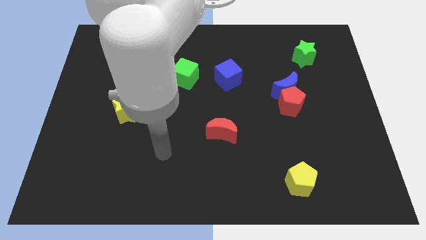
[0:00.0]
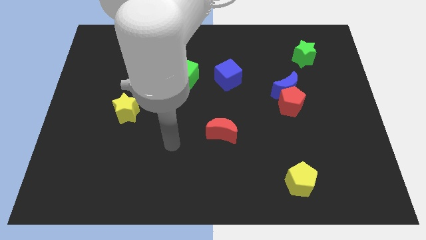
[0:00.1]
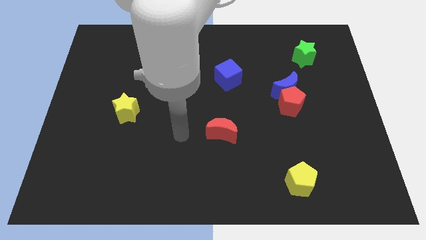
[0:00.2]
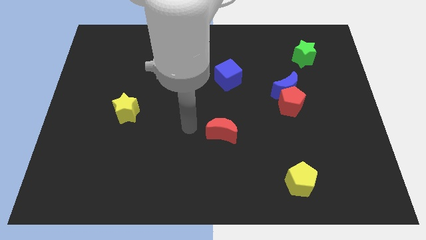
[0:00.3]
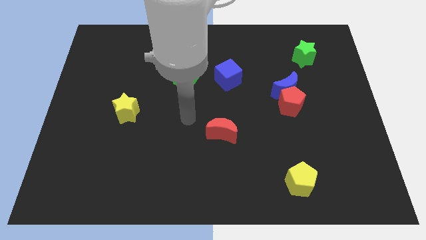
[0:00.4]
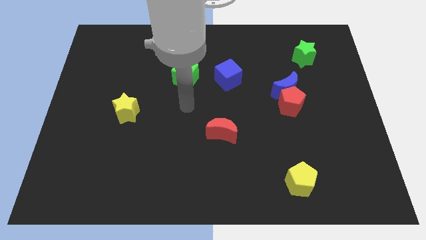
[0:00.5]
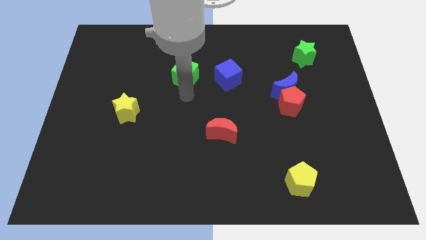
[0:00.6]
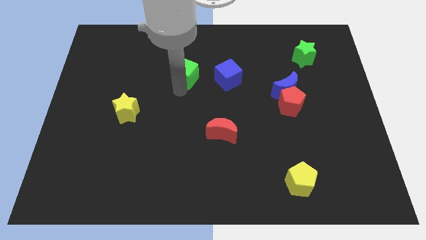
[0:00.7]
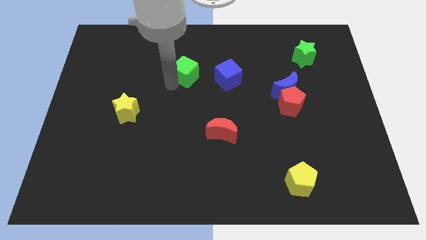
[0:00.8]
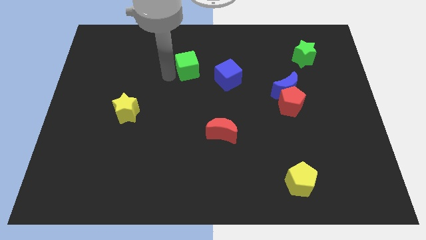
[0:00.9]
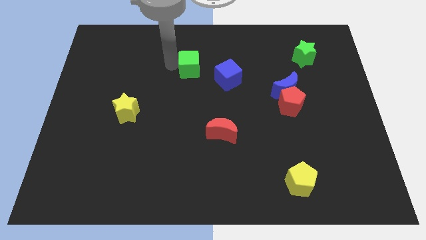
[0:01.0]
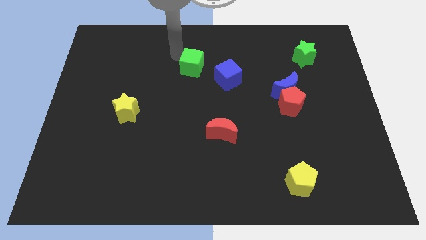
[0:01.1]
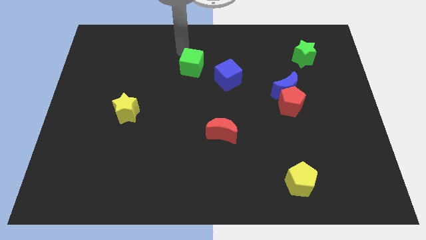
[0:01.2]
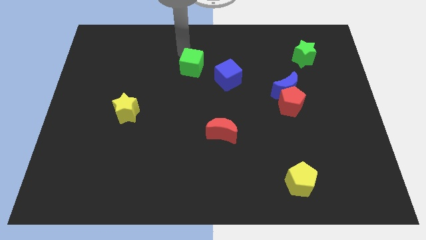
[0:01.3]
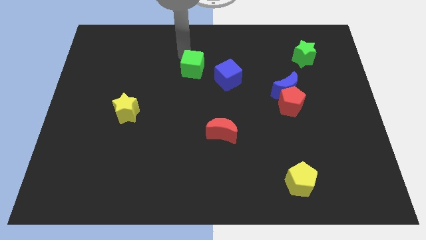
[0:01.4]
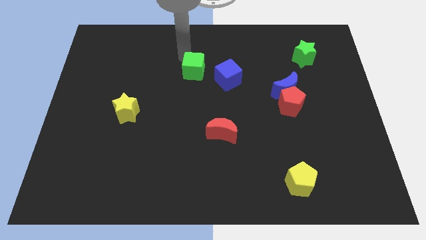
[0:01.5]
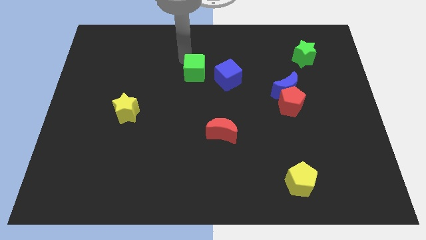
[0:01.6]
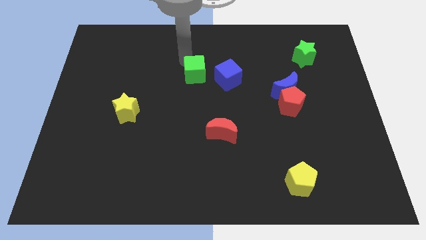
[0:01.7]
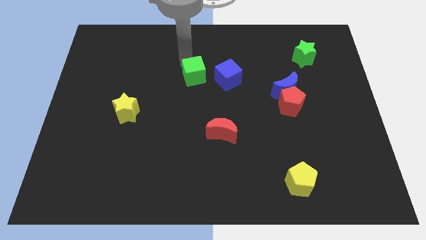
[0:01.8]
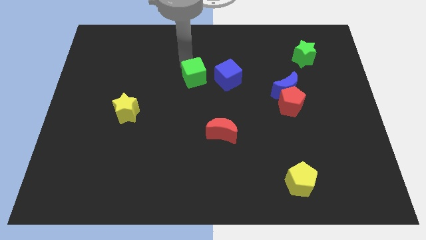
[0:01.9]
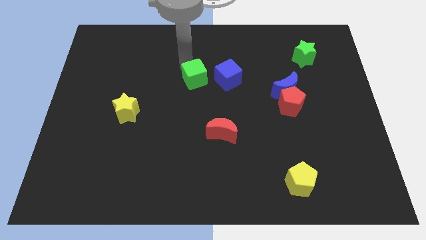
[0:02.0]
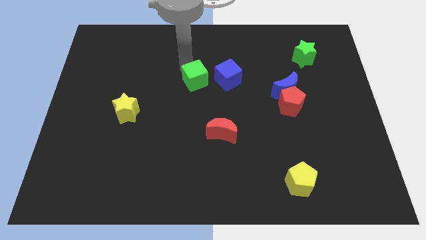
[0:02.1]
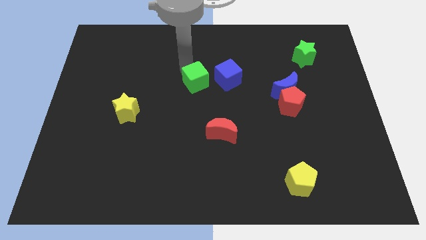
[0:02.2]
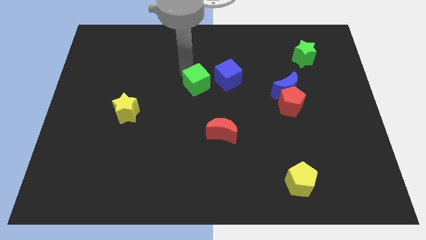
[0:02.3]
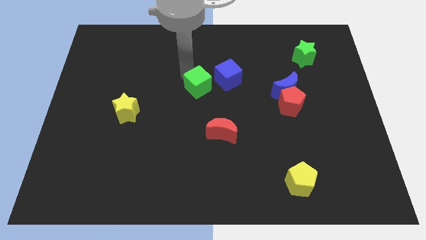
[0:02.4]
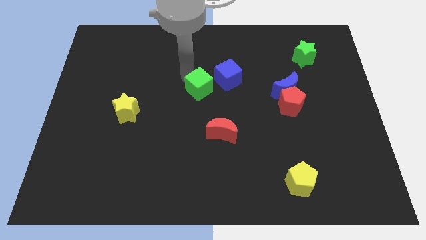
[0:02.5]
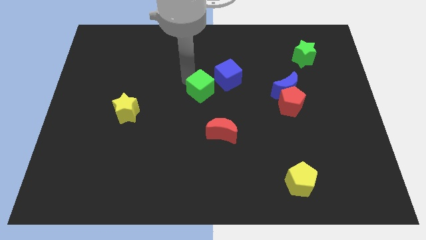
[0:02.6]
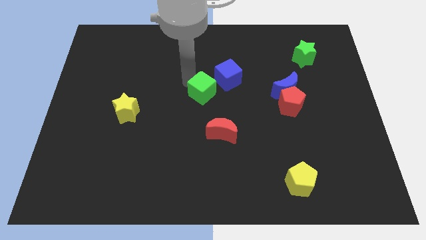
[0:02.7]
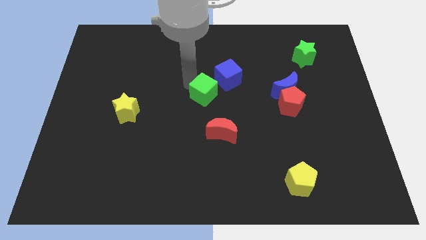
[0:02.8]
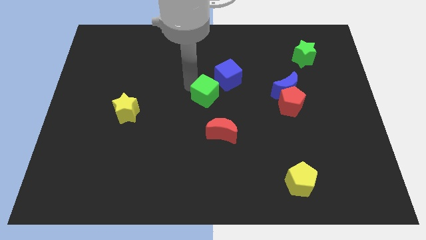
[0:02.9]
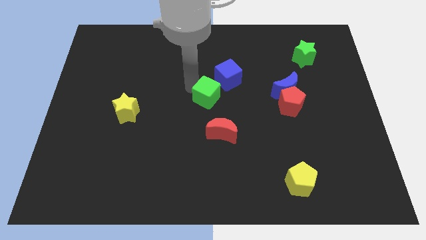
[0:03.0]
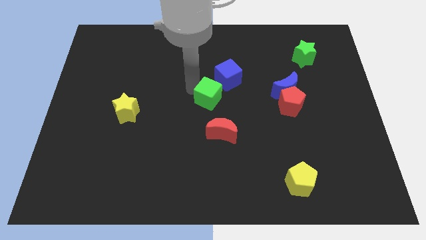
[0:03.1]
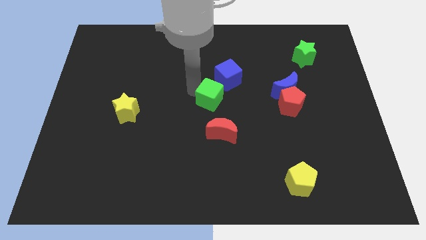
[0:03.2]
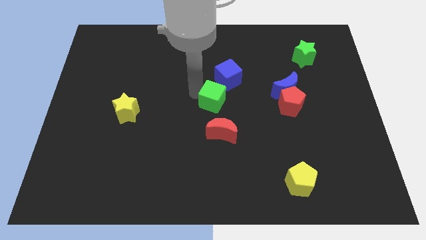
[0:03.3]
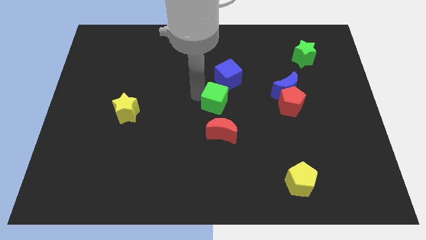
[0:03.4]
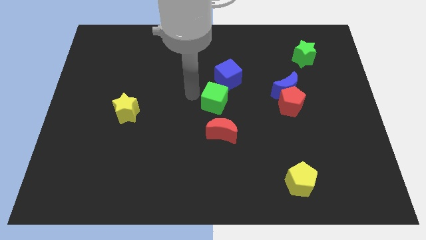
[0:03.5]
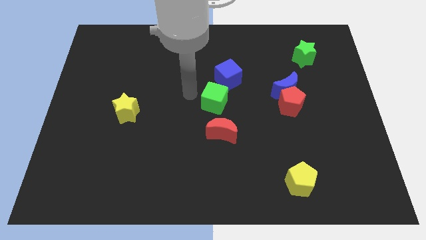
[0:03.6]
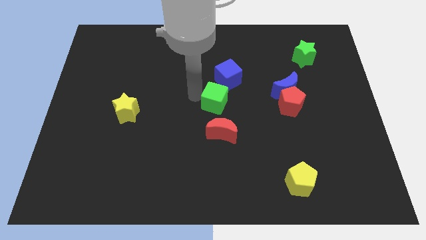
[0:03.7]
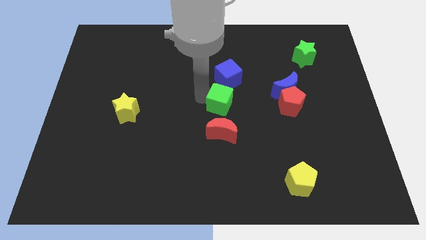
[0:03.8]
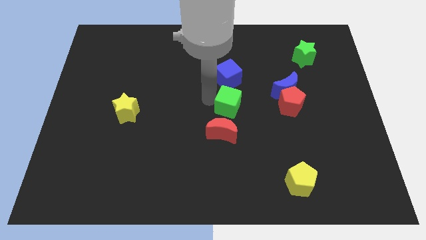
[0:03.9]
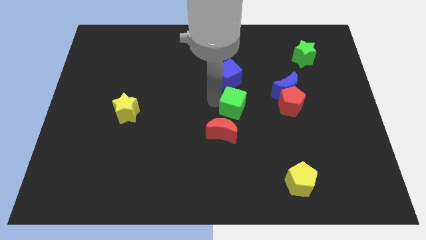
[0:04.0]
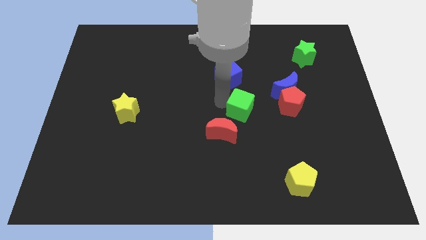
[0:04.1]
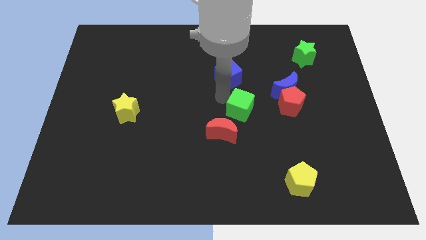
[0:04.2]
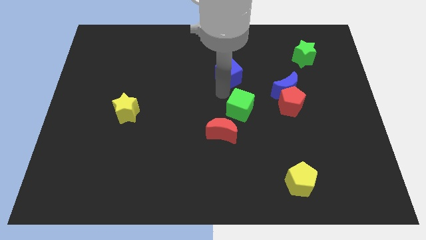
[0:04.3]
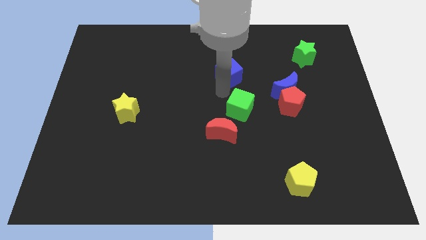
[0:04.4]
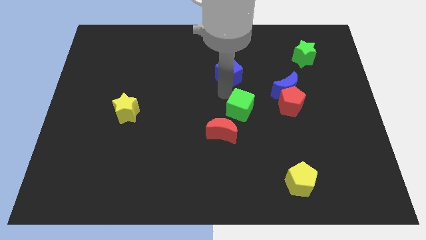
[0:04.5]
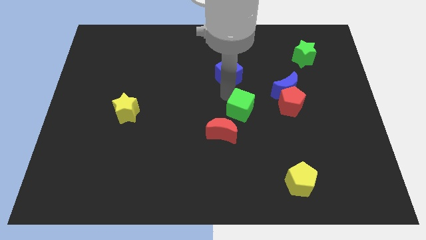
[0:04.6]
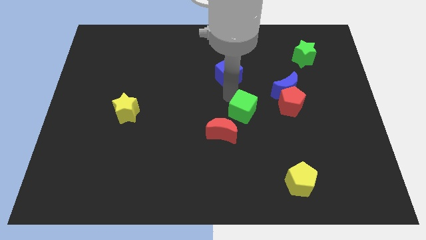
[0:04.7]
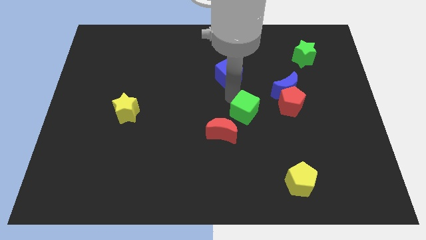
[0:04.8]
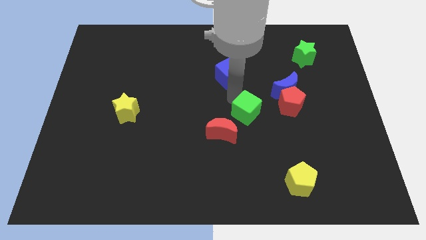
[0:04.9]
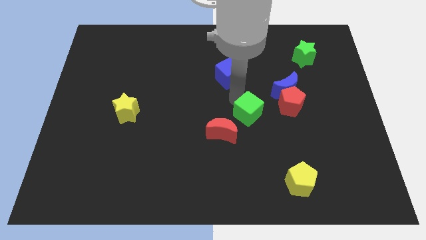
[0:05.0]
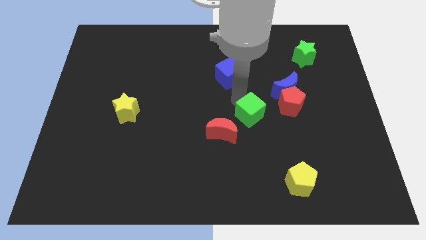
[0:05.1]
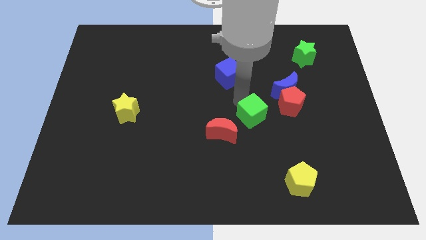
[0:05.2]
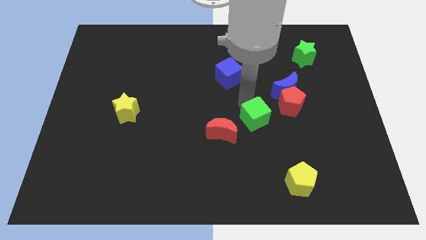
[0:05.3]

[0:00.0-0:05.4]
move the green cube down and right

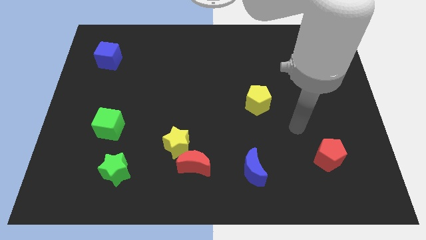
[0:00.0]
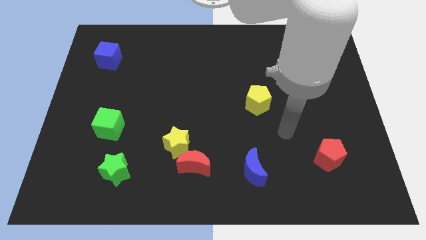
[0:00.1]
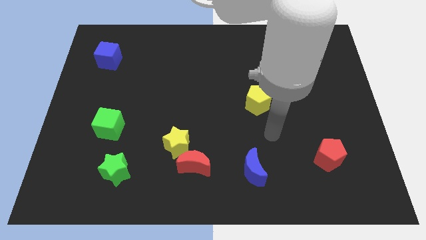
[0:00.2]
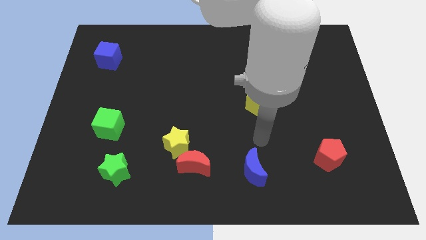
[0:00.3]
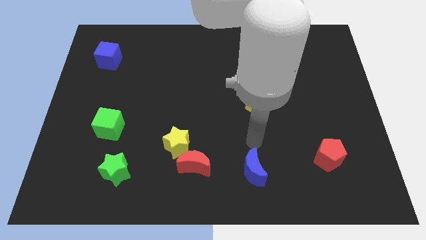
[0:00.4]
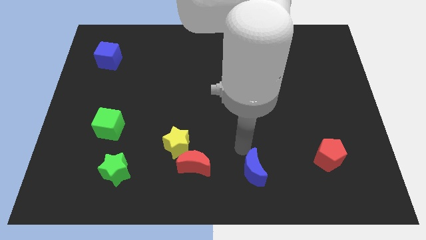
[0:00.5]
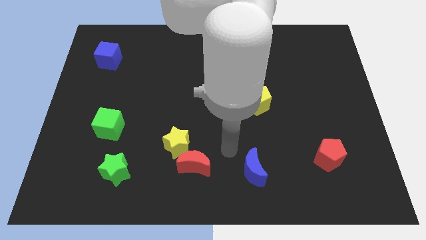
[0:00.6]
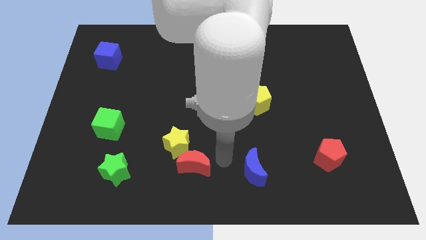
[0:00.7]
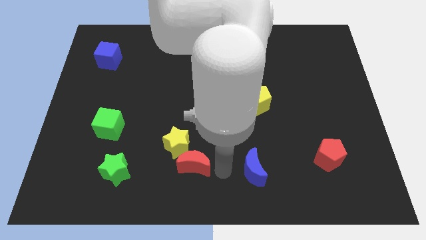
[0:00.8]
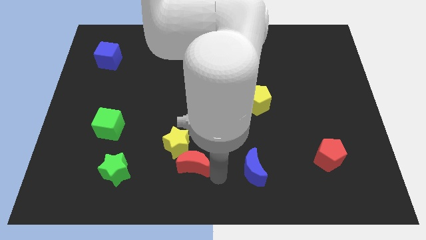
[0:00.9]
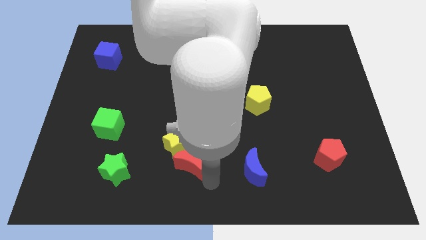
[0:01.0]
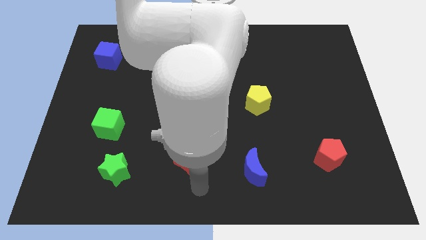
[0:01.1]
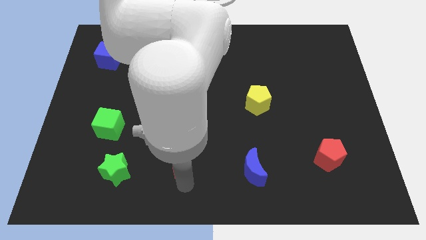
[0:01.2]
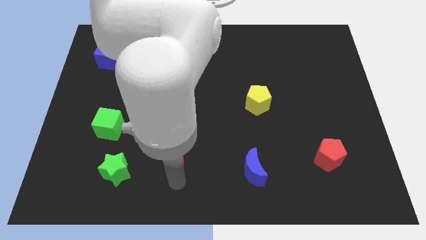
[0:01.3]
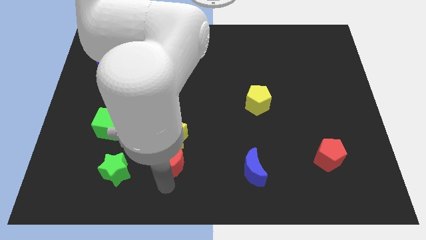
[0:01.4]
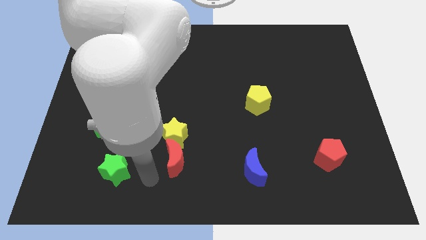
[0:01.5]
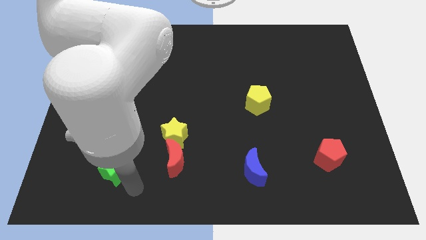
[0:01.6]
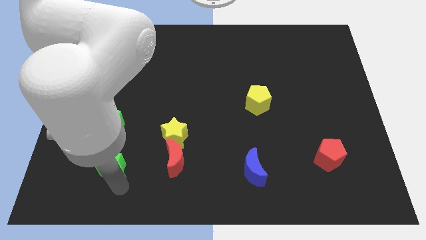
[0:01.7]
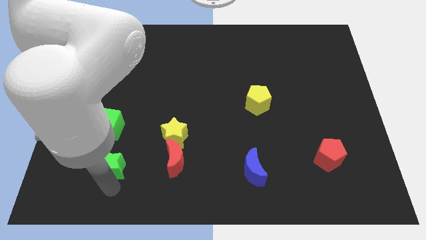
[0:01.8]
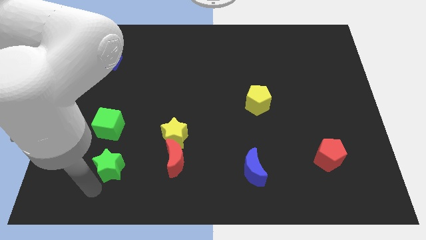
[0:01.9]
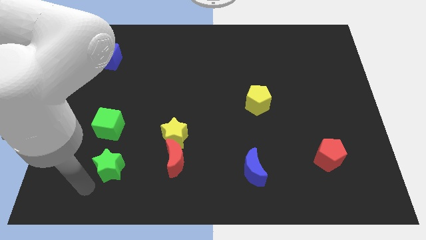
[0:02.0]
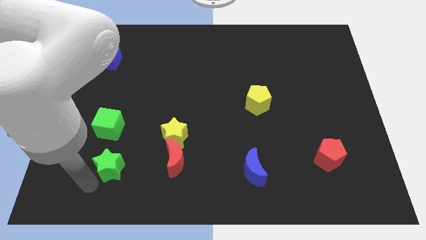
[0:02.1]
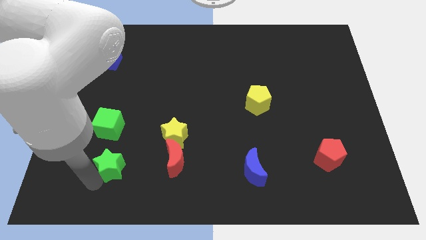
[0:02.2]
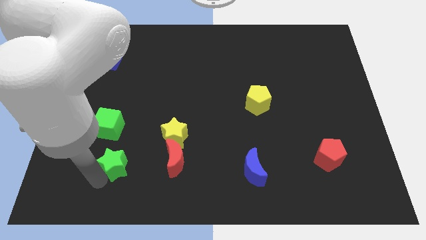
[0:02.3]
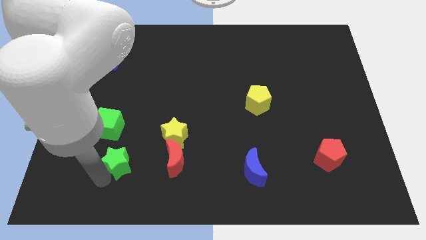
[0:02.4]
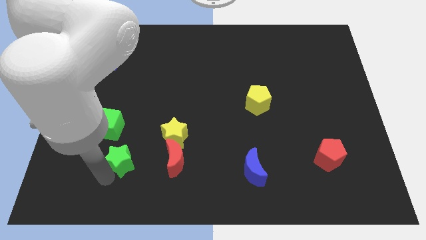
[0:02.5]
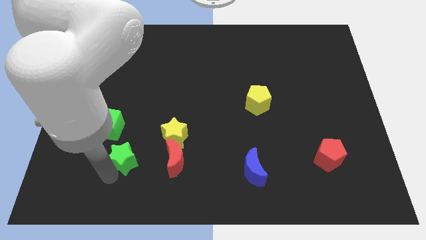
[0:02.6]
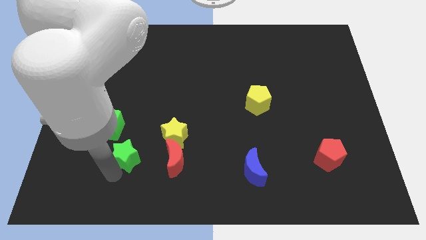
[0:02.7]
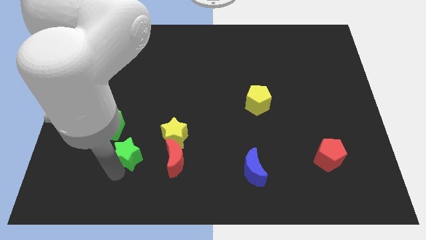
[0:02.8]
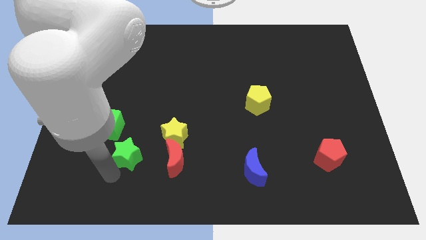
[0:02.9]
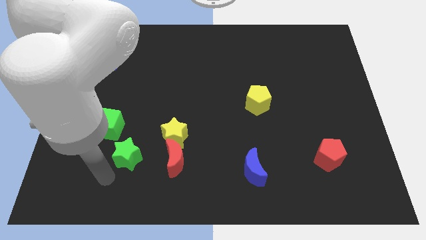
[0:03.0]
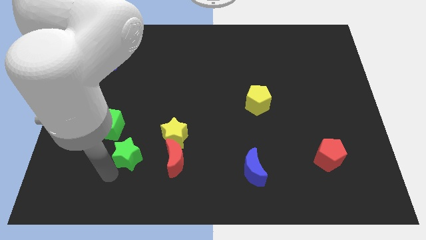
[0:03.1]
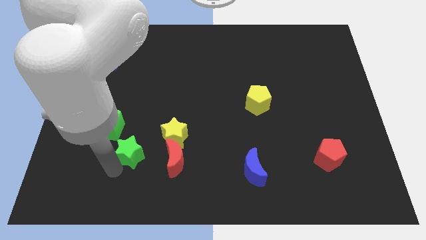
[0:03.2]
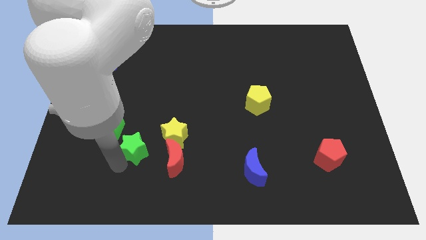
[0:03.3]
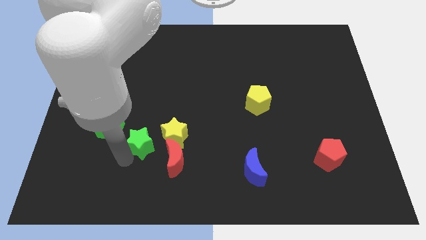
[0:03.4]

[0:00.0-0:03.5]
move the green star upwards and right somewhat
